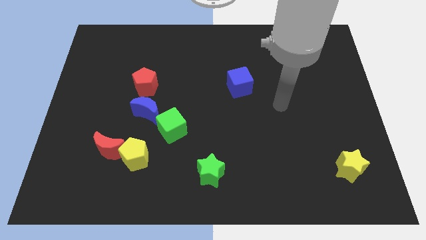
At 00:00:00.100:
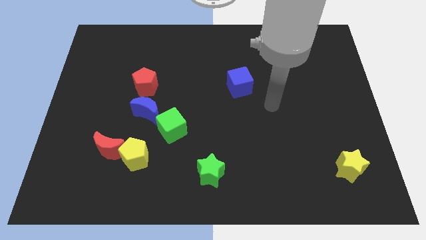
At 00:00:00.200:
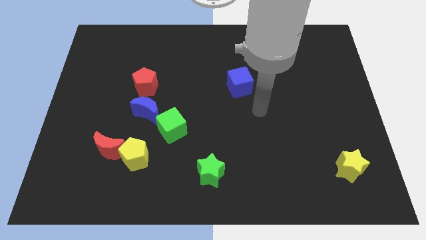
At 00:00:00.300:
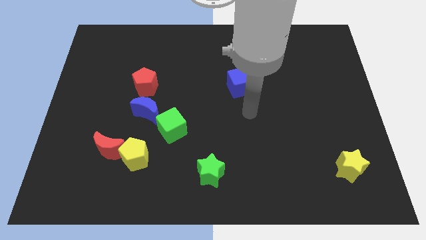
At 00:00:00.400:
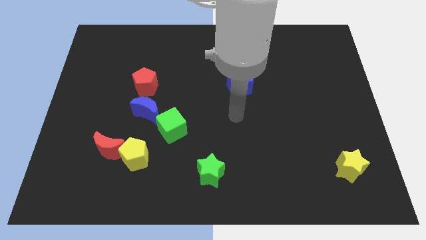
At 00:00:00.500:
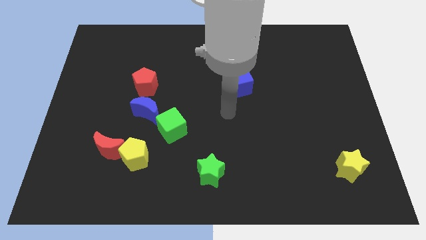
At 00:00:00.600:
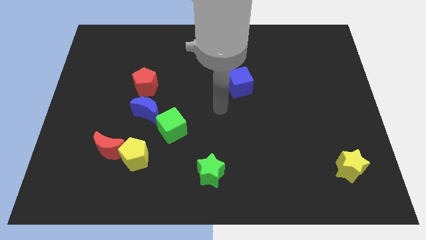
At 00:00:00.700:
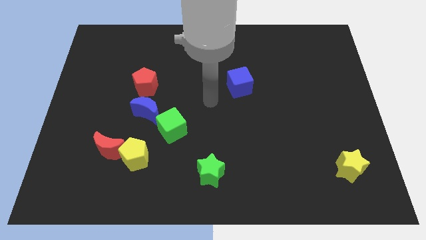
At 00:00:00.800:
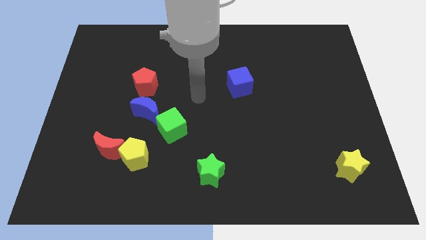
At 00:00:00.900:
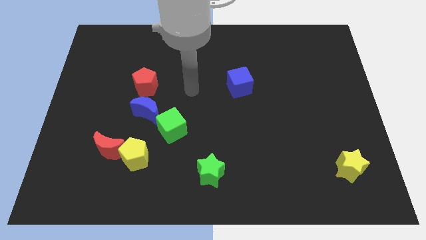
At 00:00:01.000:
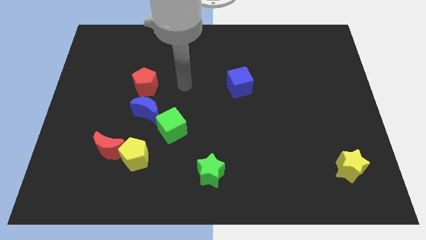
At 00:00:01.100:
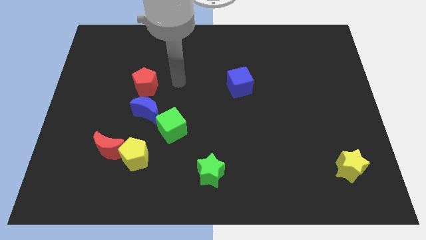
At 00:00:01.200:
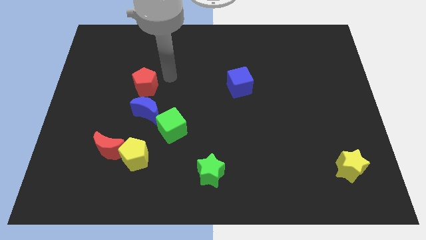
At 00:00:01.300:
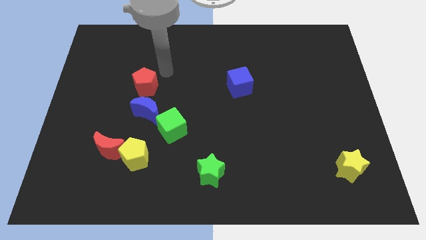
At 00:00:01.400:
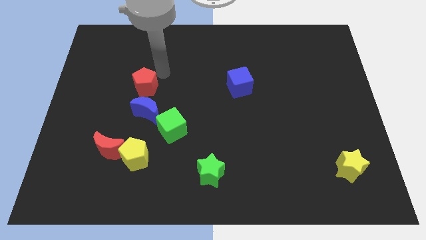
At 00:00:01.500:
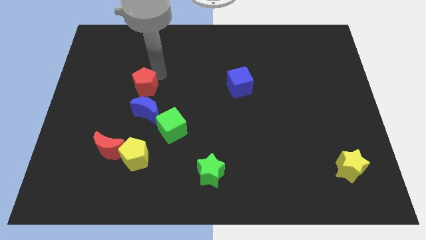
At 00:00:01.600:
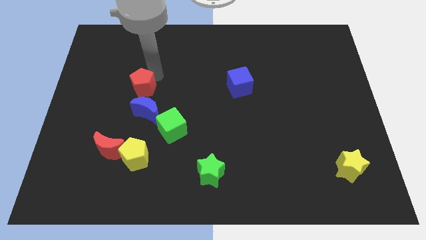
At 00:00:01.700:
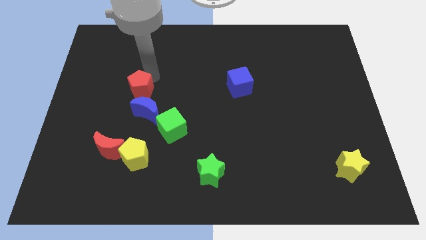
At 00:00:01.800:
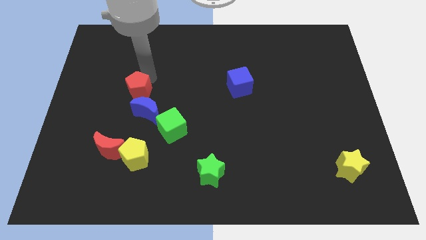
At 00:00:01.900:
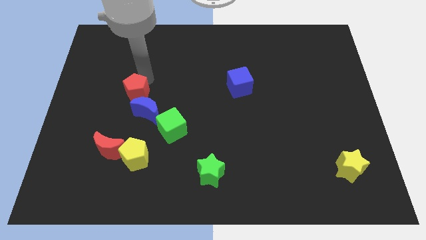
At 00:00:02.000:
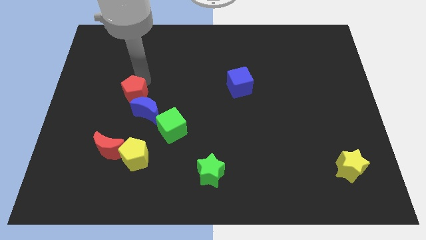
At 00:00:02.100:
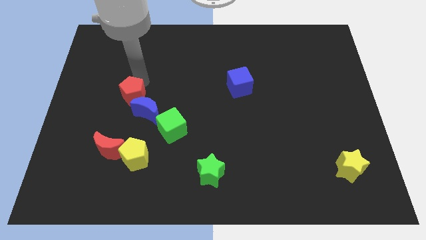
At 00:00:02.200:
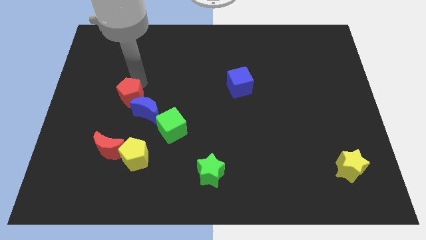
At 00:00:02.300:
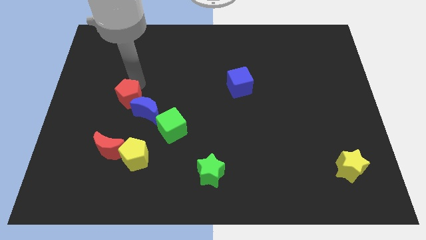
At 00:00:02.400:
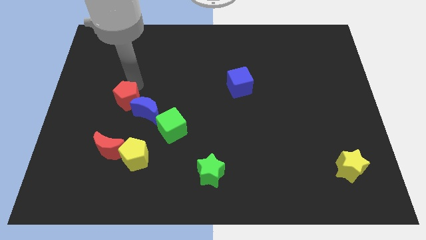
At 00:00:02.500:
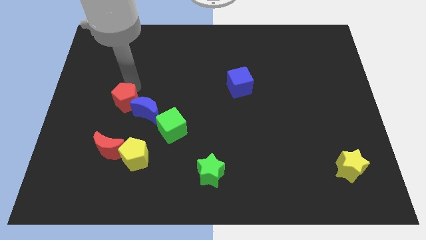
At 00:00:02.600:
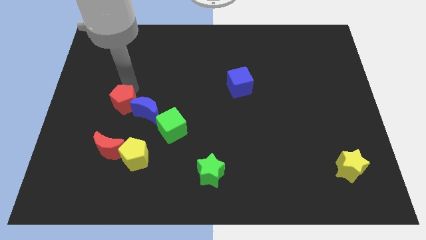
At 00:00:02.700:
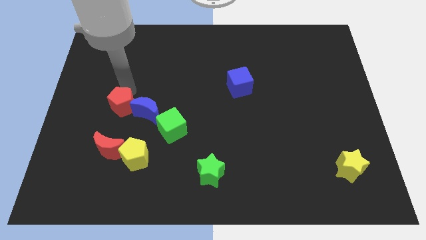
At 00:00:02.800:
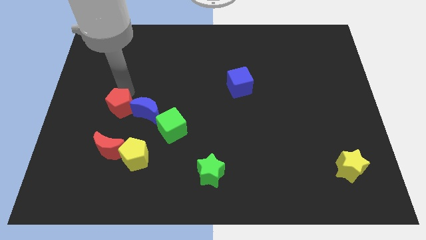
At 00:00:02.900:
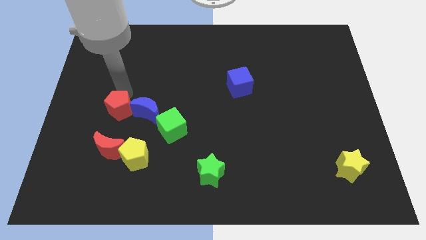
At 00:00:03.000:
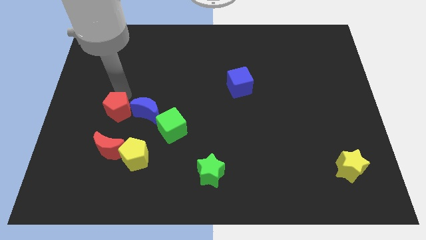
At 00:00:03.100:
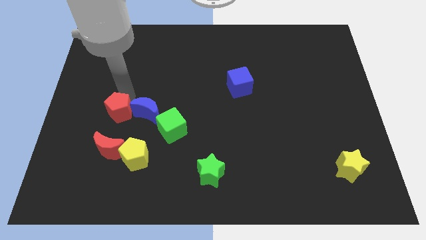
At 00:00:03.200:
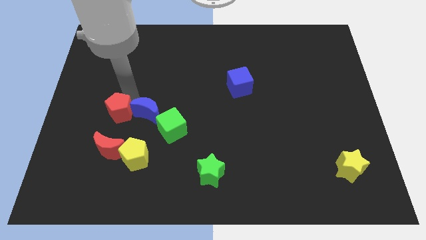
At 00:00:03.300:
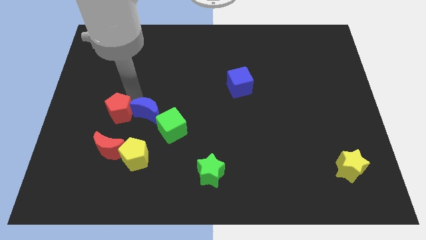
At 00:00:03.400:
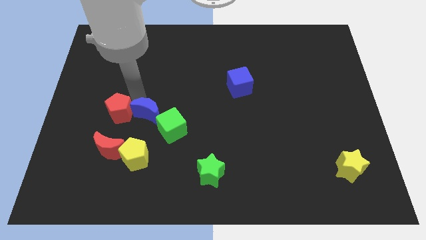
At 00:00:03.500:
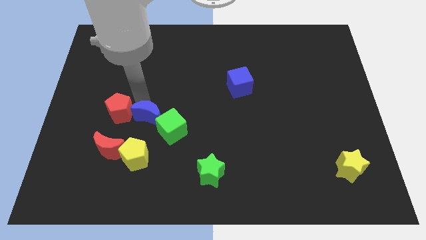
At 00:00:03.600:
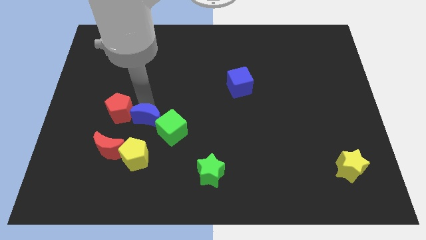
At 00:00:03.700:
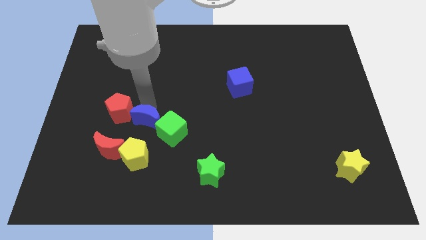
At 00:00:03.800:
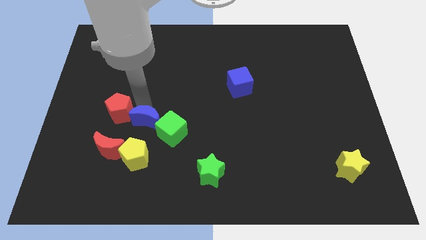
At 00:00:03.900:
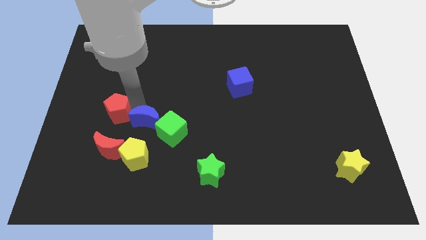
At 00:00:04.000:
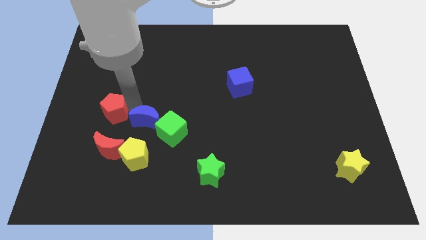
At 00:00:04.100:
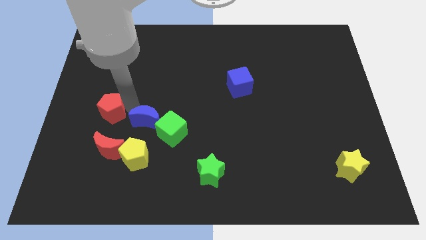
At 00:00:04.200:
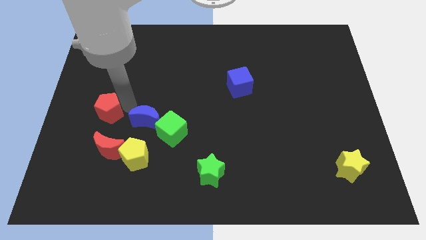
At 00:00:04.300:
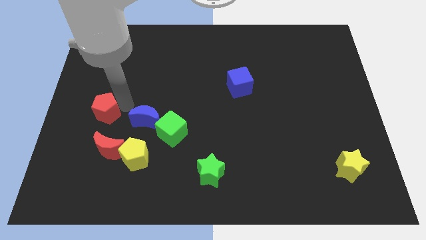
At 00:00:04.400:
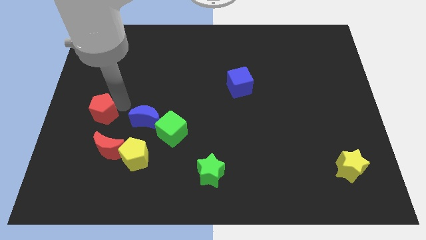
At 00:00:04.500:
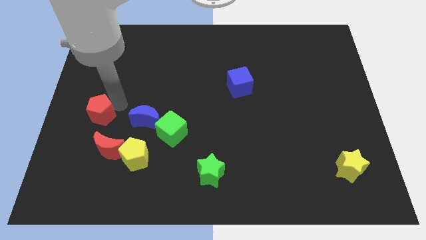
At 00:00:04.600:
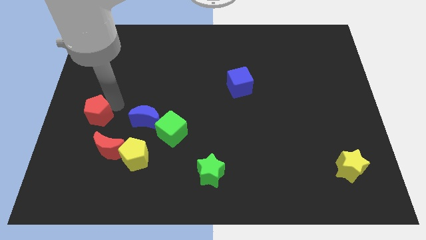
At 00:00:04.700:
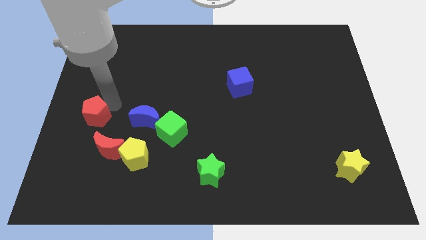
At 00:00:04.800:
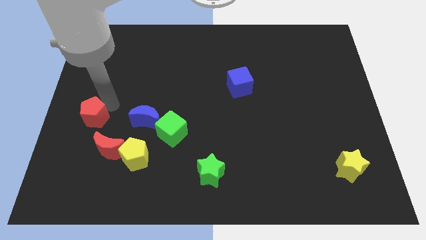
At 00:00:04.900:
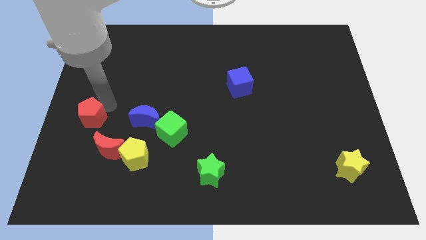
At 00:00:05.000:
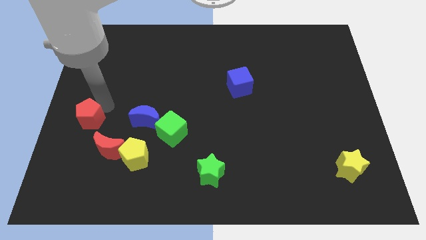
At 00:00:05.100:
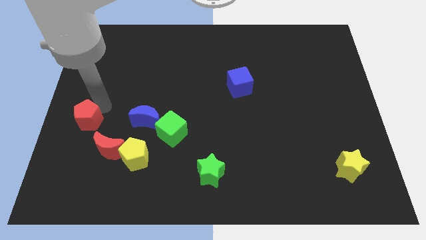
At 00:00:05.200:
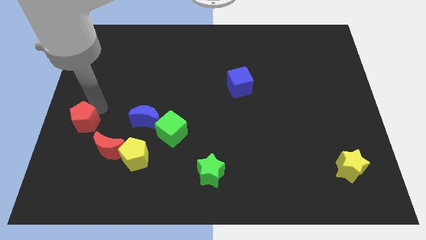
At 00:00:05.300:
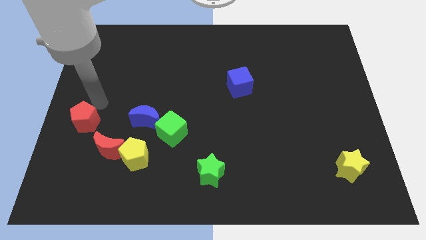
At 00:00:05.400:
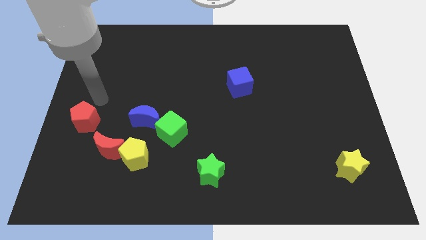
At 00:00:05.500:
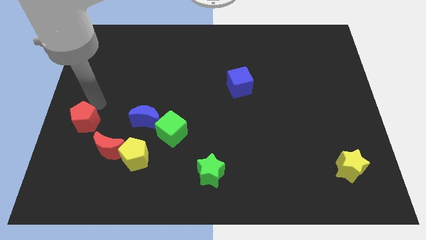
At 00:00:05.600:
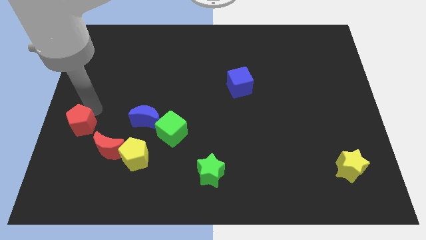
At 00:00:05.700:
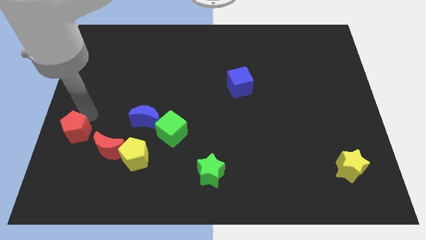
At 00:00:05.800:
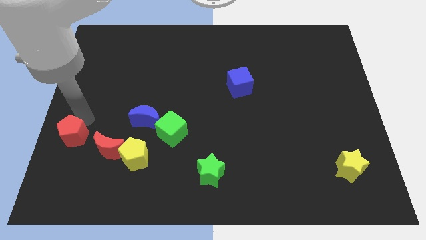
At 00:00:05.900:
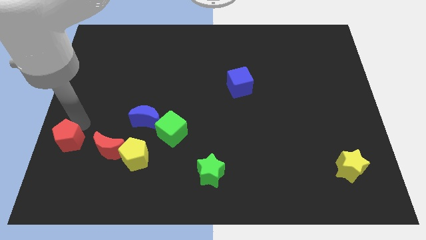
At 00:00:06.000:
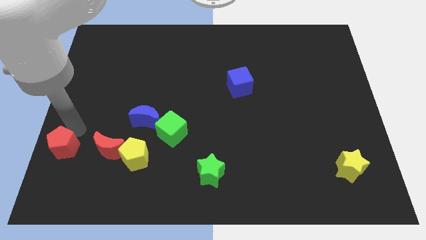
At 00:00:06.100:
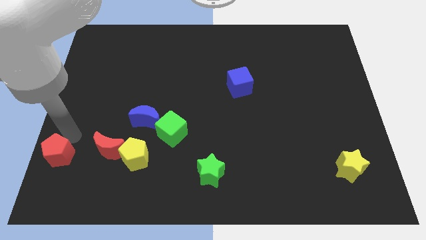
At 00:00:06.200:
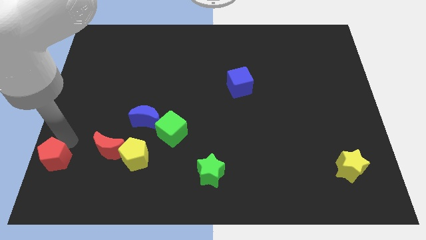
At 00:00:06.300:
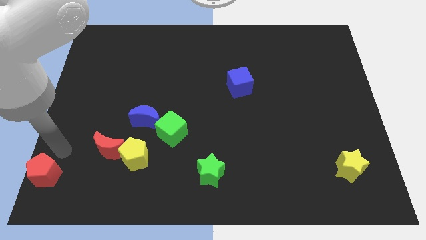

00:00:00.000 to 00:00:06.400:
put the red pentagon to the lower left corner
